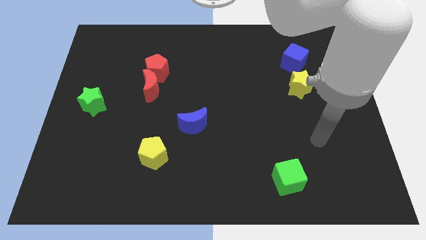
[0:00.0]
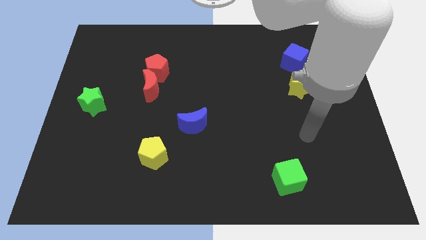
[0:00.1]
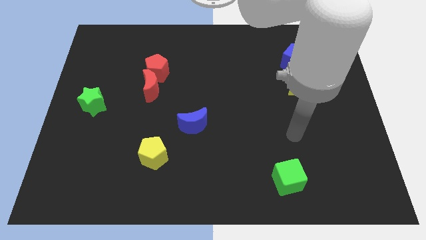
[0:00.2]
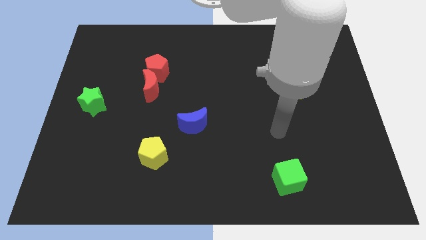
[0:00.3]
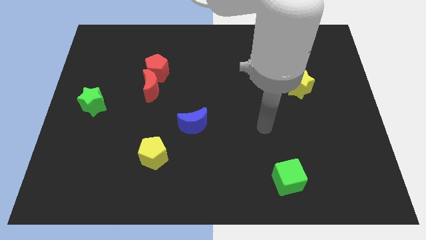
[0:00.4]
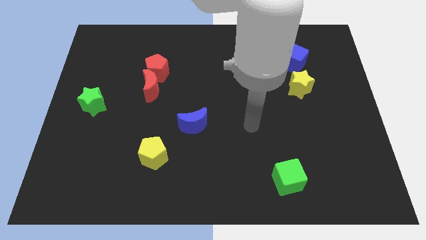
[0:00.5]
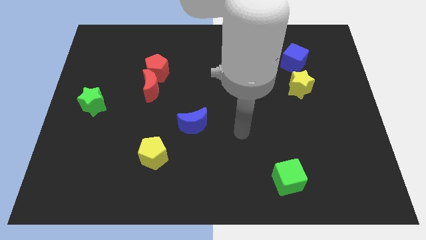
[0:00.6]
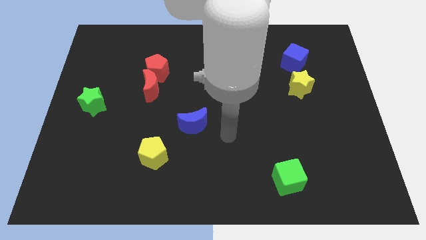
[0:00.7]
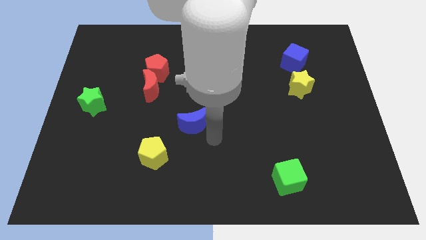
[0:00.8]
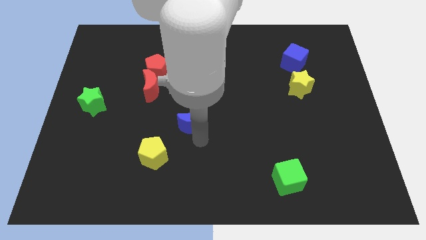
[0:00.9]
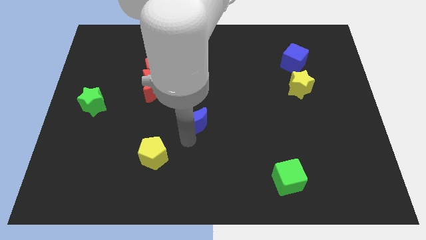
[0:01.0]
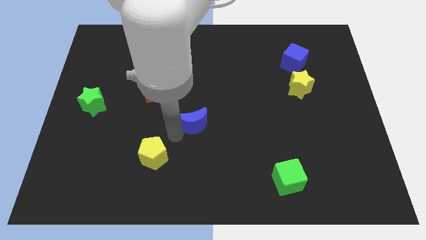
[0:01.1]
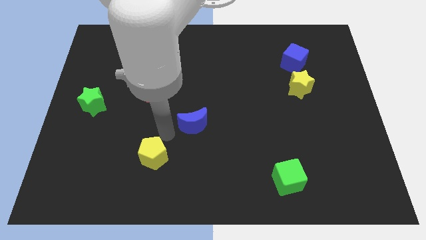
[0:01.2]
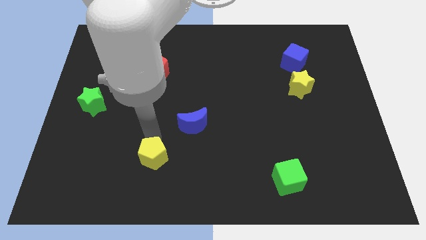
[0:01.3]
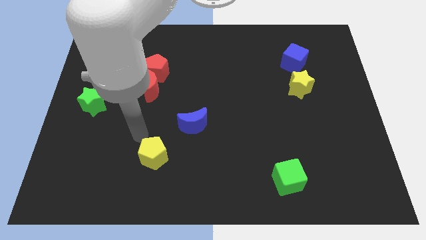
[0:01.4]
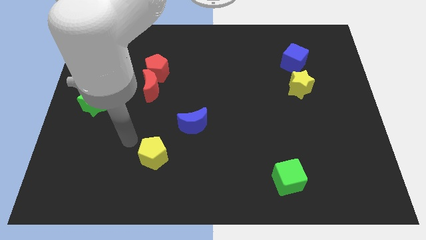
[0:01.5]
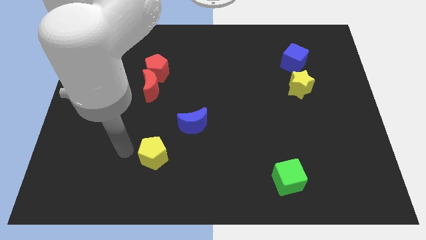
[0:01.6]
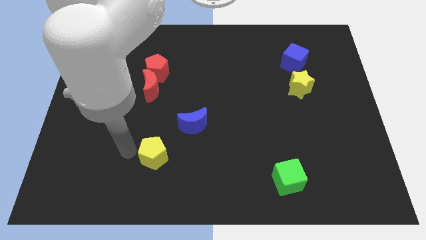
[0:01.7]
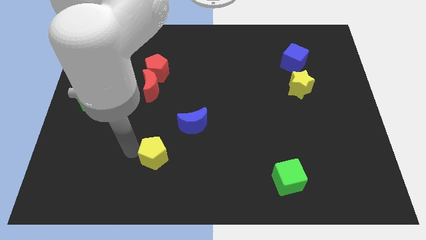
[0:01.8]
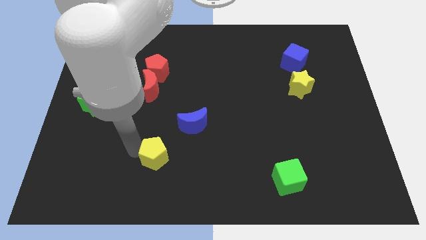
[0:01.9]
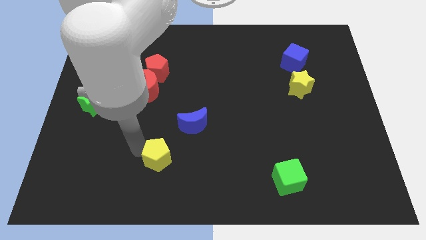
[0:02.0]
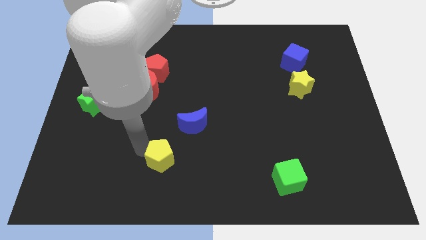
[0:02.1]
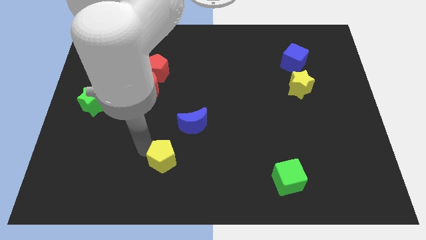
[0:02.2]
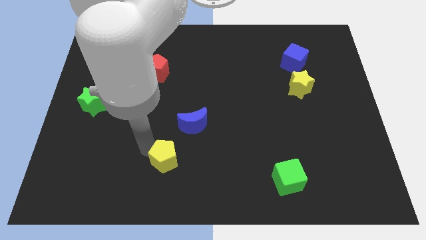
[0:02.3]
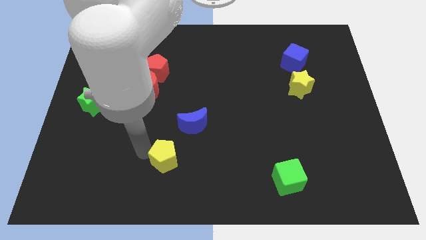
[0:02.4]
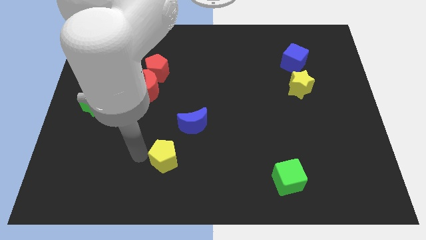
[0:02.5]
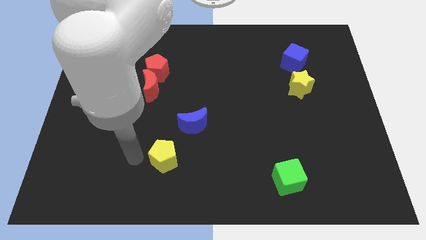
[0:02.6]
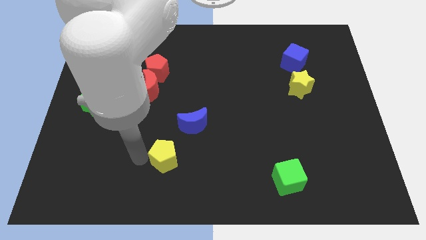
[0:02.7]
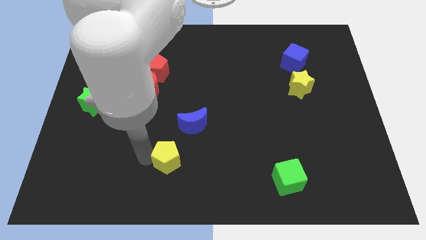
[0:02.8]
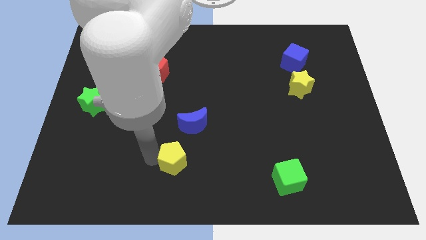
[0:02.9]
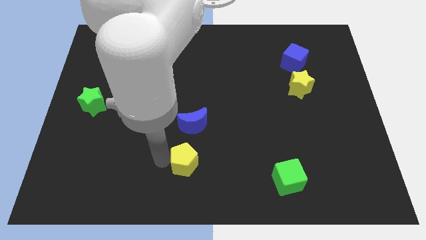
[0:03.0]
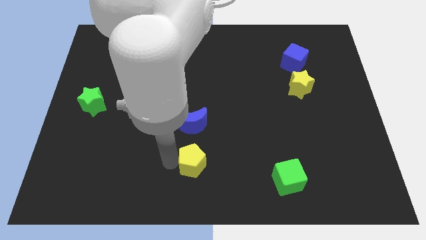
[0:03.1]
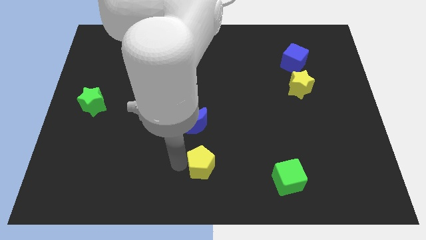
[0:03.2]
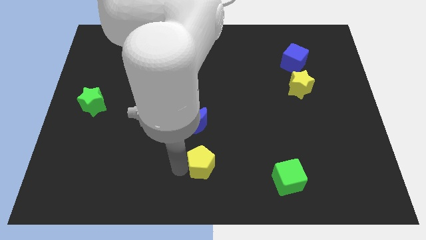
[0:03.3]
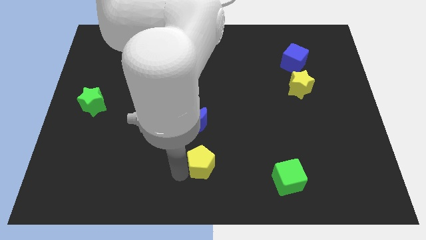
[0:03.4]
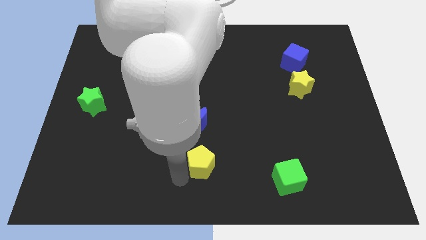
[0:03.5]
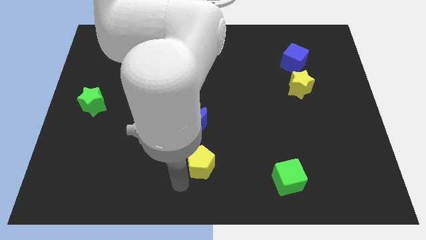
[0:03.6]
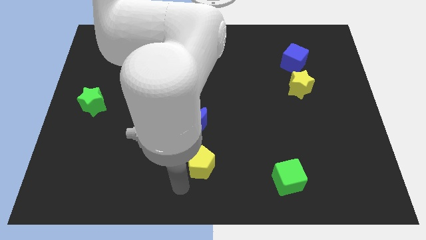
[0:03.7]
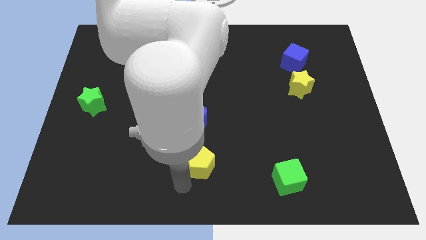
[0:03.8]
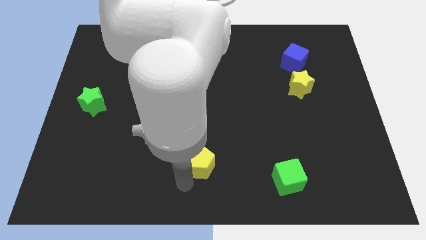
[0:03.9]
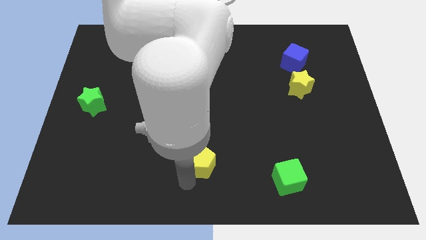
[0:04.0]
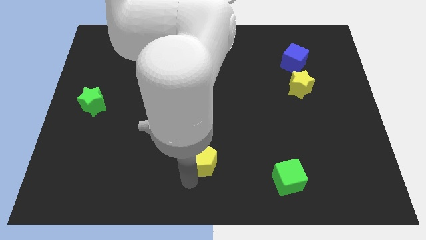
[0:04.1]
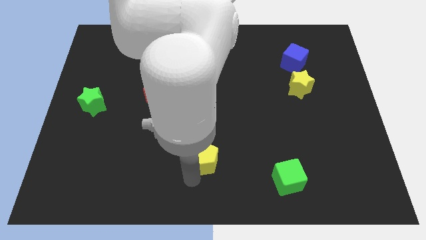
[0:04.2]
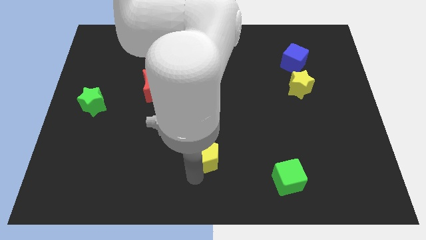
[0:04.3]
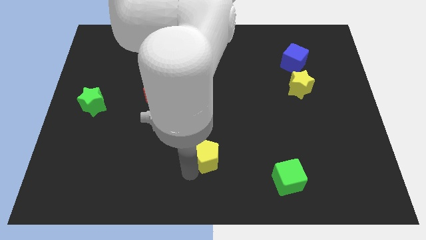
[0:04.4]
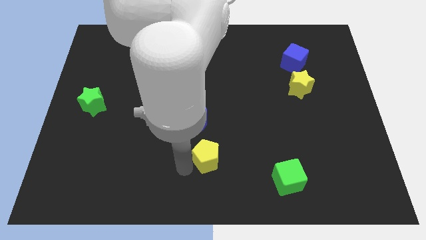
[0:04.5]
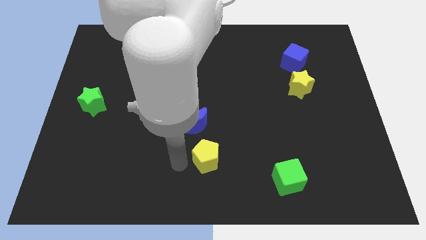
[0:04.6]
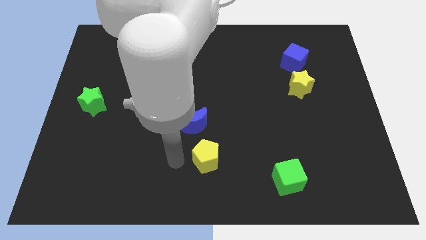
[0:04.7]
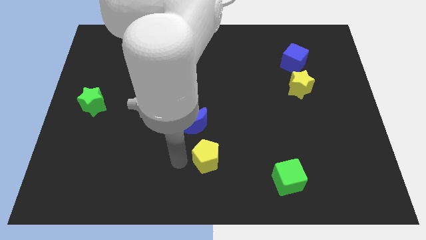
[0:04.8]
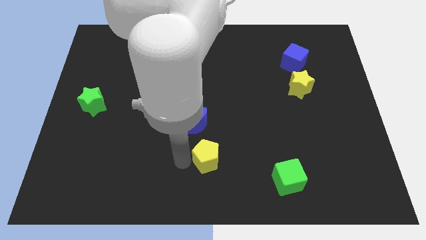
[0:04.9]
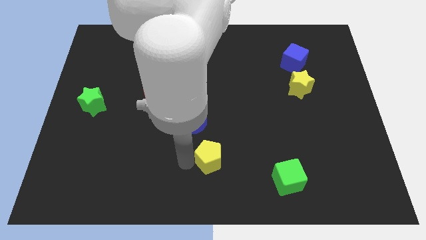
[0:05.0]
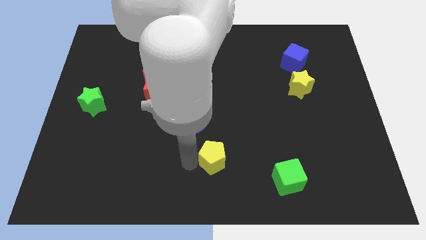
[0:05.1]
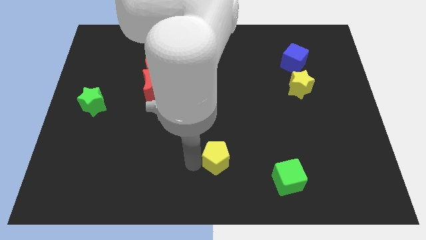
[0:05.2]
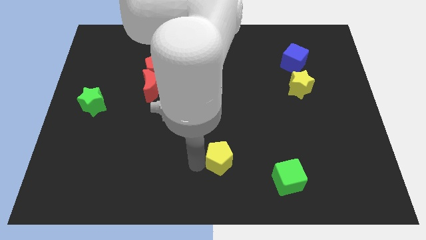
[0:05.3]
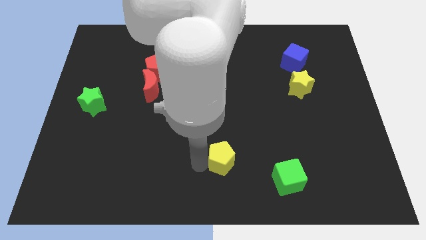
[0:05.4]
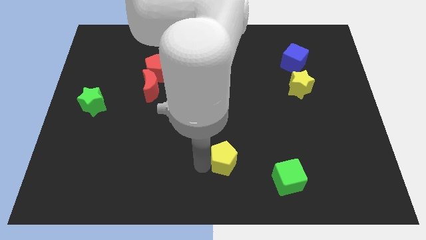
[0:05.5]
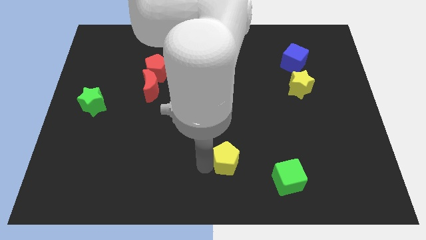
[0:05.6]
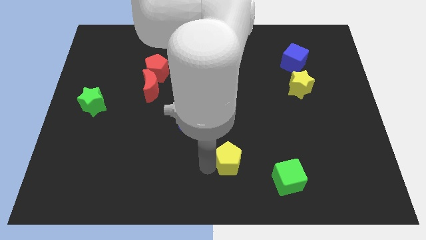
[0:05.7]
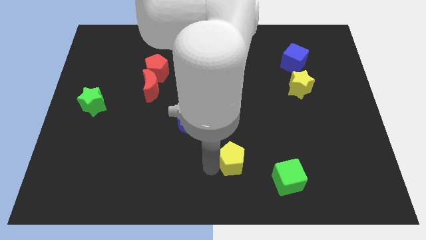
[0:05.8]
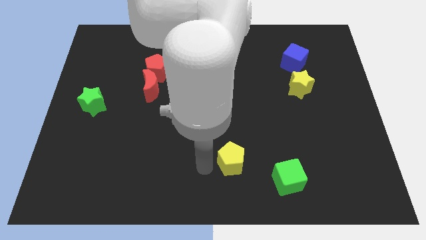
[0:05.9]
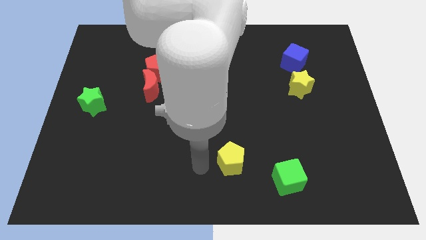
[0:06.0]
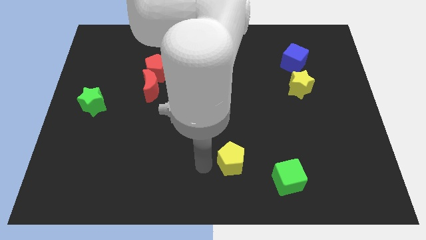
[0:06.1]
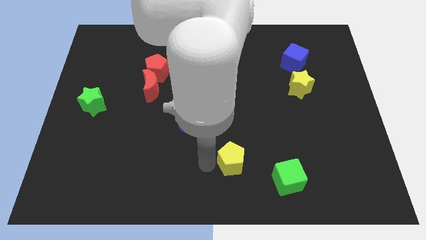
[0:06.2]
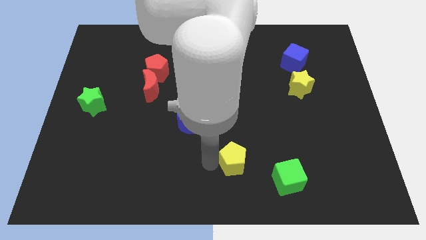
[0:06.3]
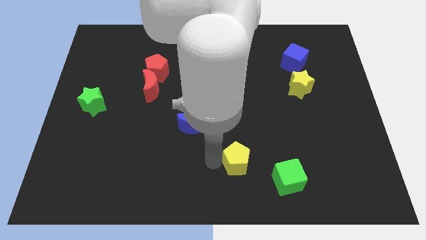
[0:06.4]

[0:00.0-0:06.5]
slide the yellow pentagon to the top left of the green cube

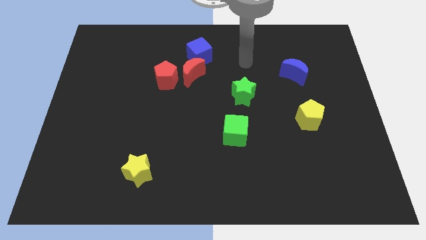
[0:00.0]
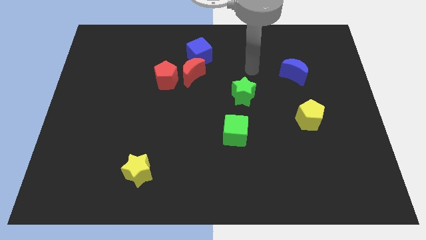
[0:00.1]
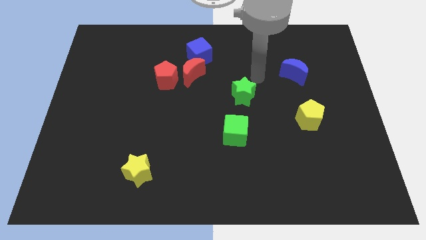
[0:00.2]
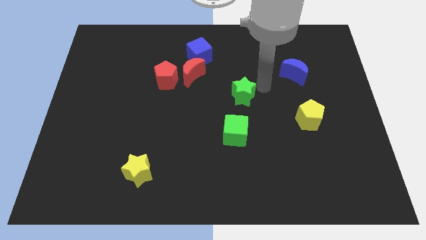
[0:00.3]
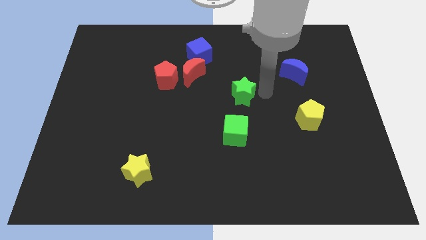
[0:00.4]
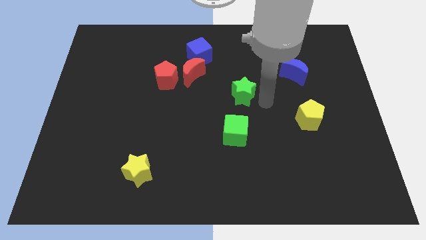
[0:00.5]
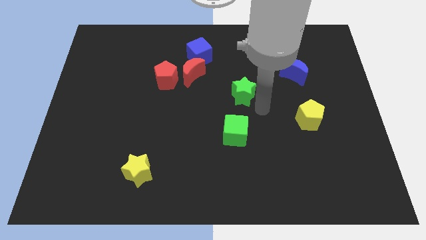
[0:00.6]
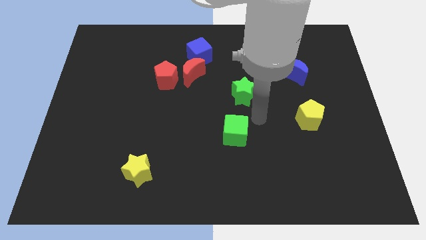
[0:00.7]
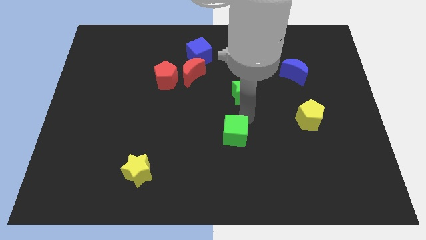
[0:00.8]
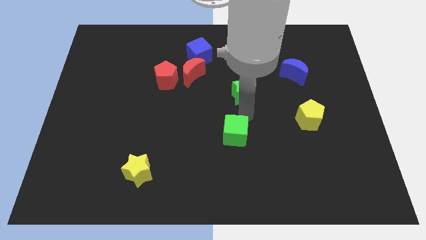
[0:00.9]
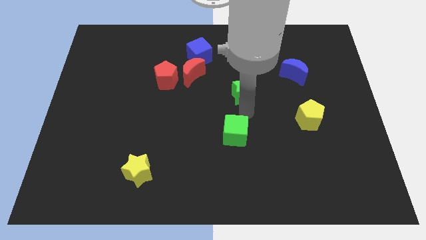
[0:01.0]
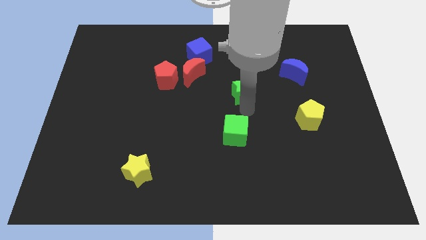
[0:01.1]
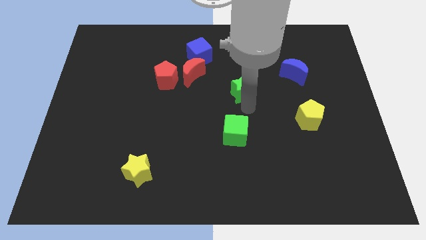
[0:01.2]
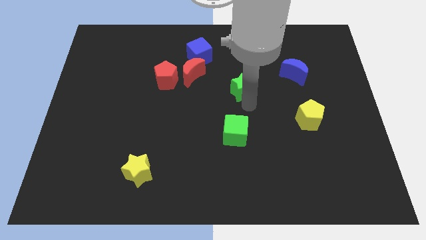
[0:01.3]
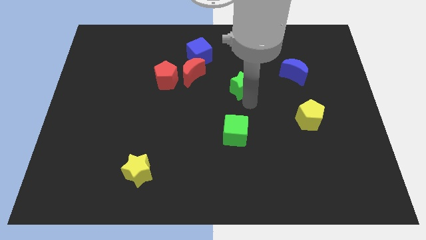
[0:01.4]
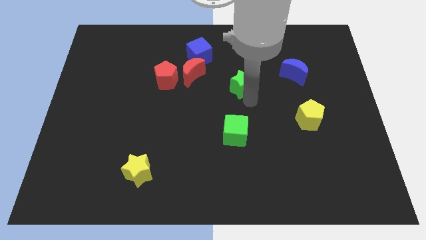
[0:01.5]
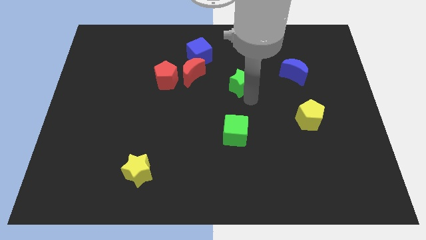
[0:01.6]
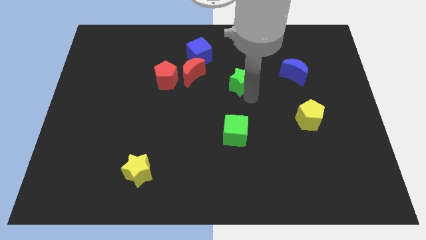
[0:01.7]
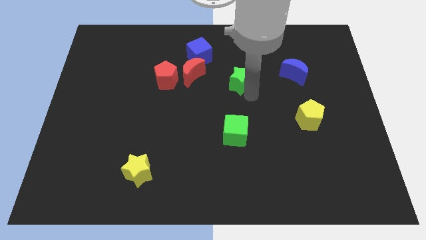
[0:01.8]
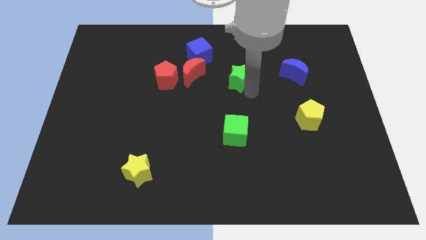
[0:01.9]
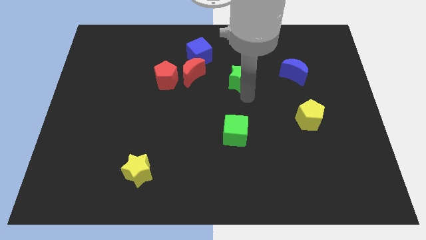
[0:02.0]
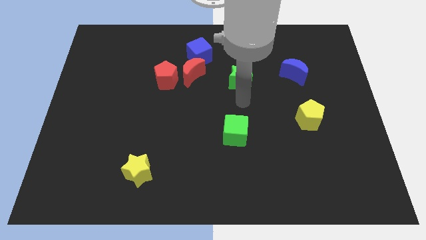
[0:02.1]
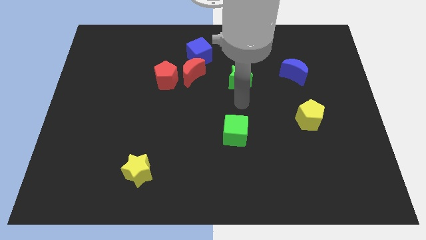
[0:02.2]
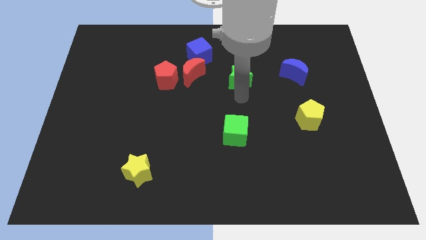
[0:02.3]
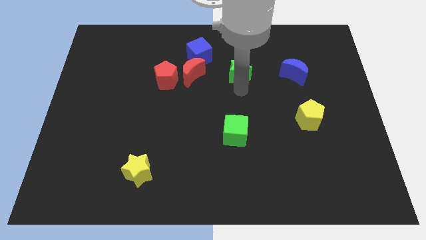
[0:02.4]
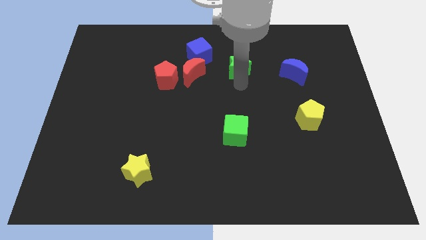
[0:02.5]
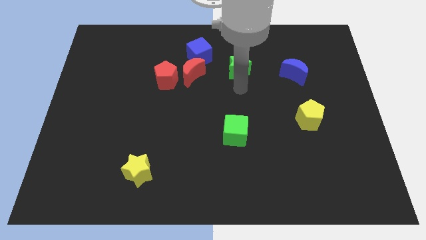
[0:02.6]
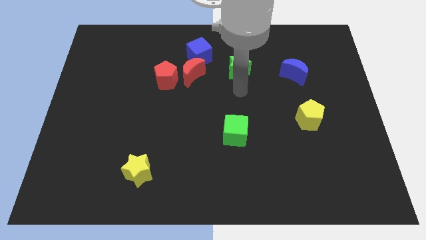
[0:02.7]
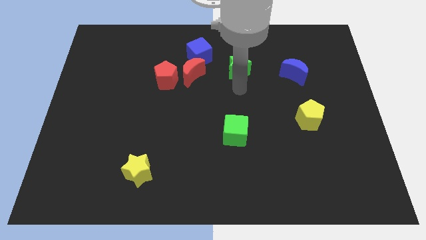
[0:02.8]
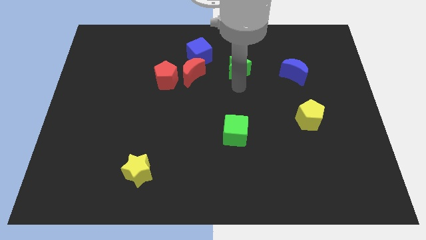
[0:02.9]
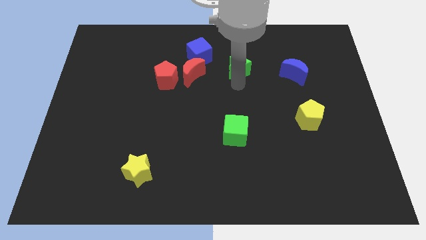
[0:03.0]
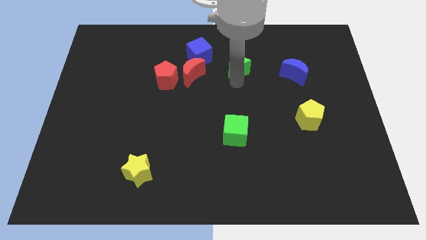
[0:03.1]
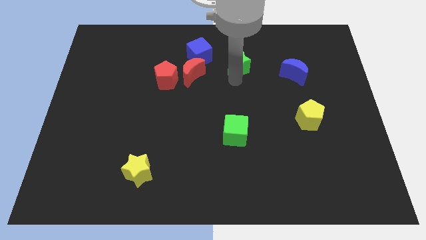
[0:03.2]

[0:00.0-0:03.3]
slide the green star just right of the blue cube
